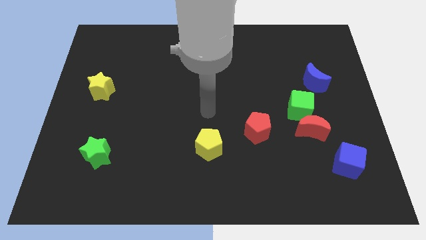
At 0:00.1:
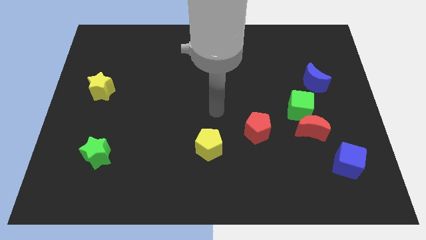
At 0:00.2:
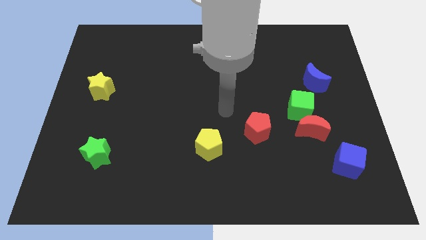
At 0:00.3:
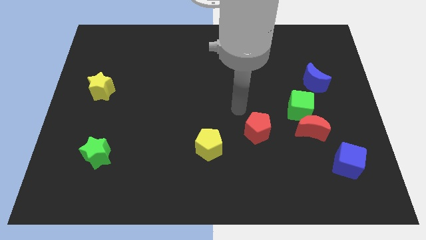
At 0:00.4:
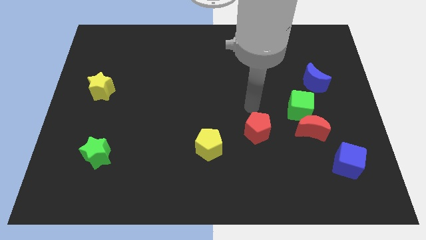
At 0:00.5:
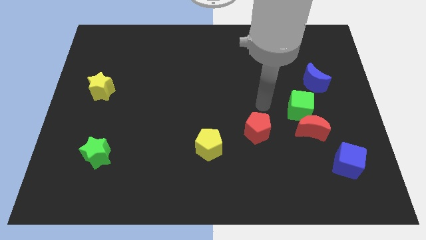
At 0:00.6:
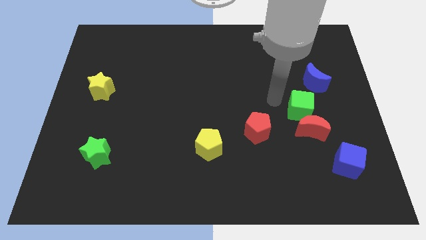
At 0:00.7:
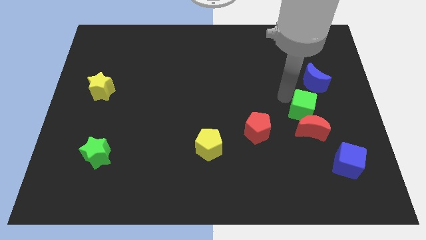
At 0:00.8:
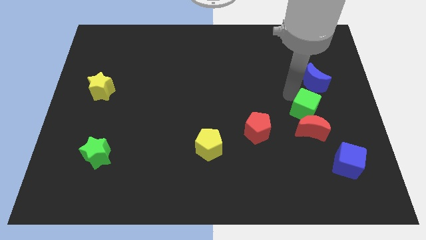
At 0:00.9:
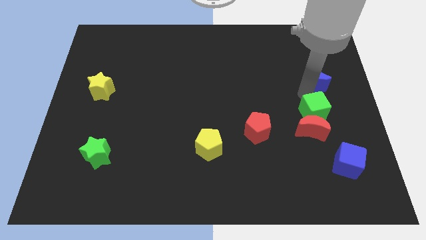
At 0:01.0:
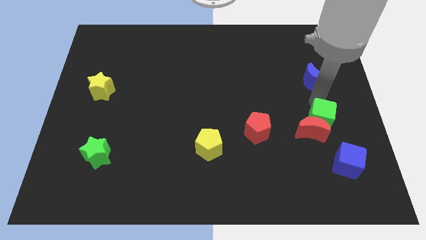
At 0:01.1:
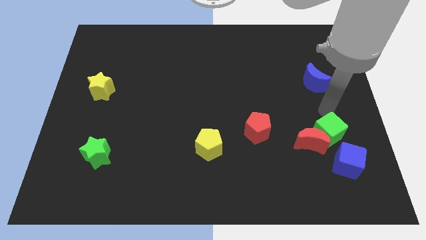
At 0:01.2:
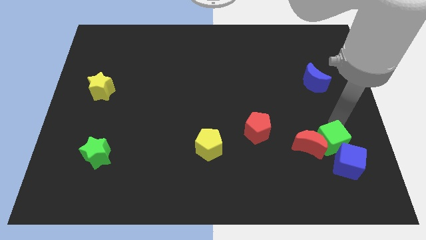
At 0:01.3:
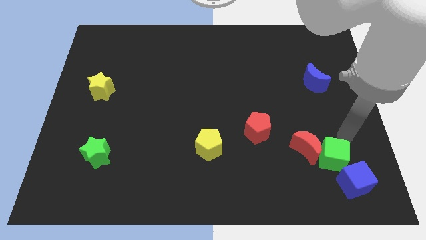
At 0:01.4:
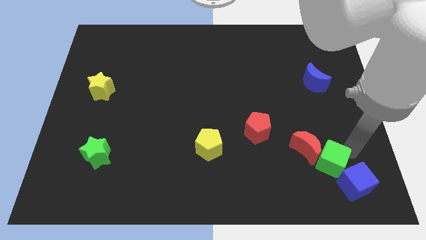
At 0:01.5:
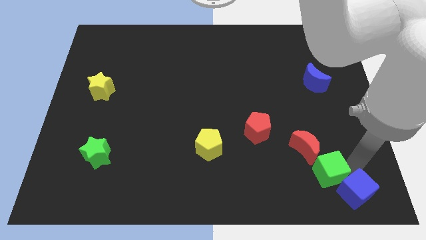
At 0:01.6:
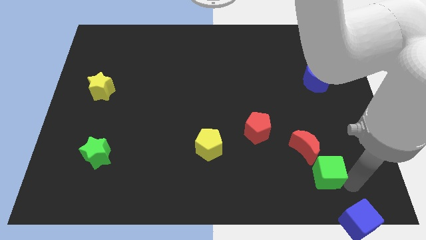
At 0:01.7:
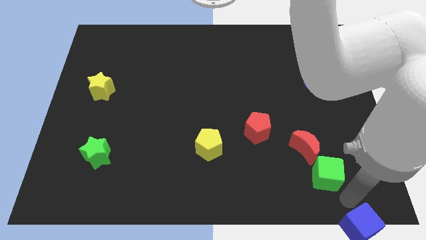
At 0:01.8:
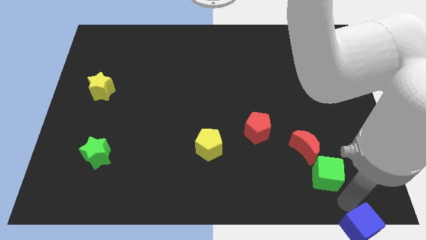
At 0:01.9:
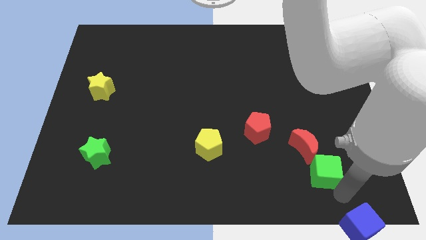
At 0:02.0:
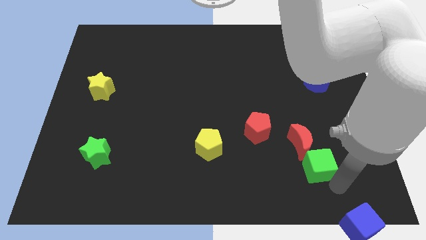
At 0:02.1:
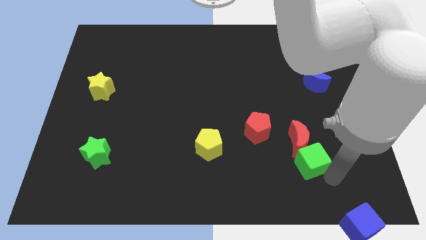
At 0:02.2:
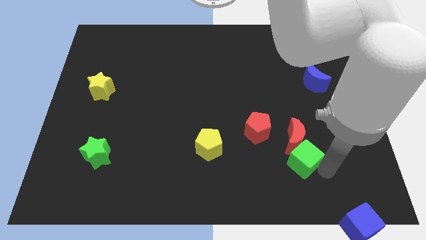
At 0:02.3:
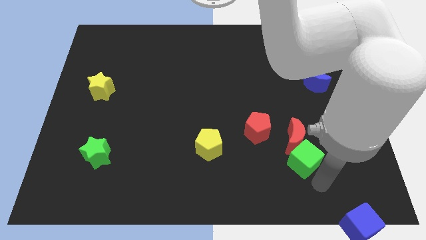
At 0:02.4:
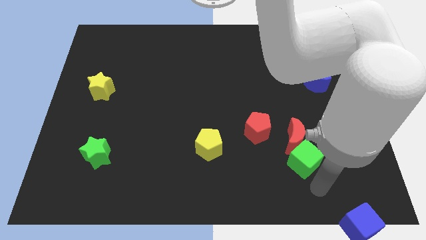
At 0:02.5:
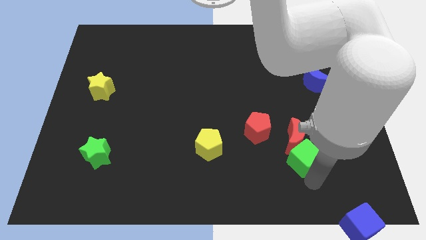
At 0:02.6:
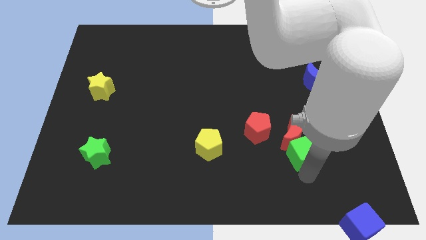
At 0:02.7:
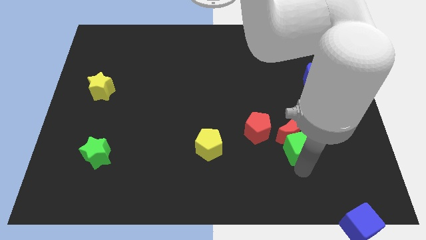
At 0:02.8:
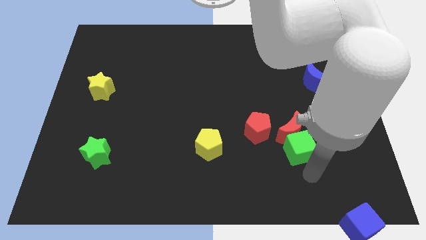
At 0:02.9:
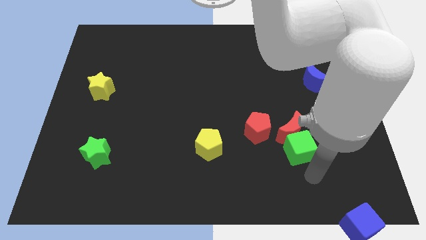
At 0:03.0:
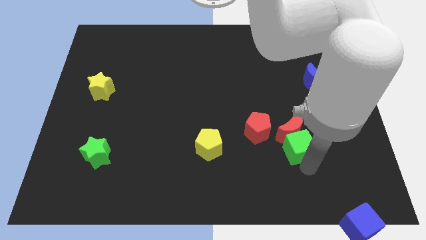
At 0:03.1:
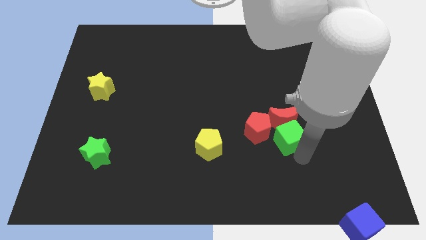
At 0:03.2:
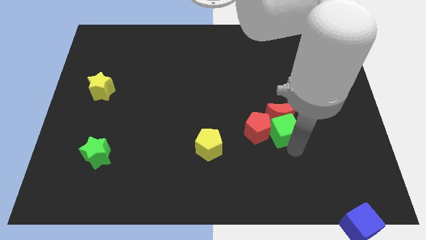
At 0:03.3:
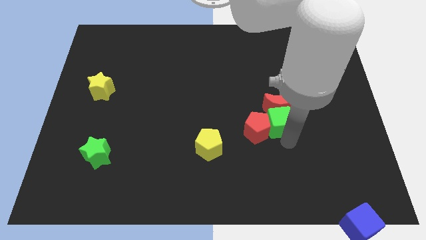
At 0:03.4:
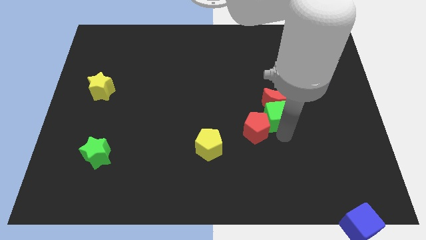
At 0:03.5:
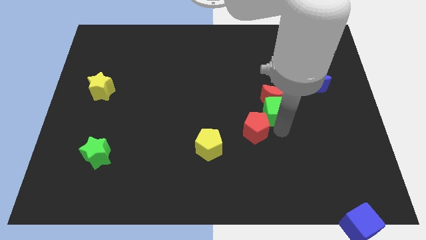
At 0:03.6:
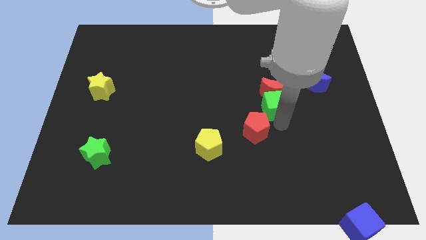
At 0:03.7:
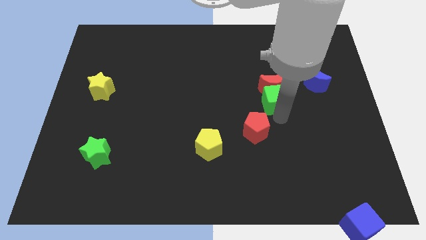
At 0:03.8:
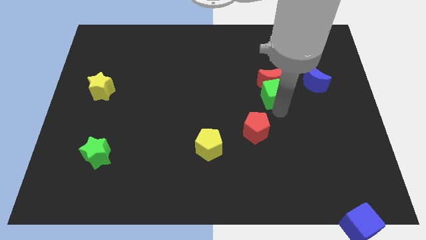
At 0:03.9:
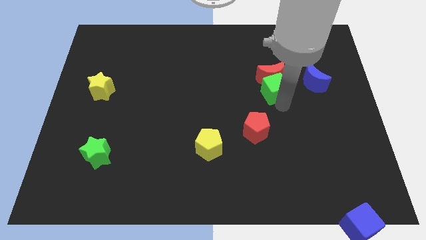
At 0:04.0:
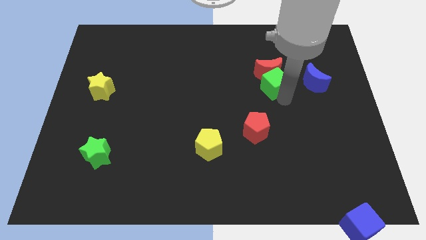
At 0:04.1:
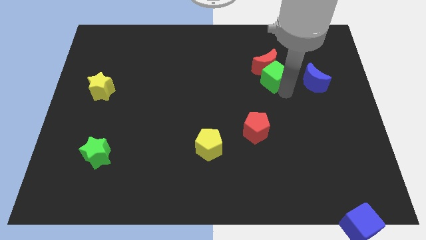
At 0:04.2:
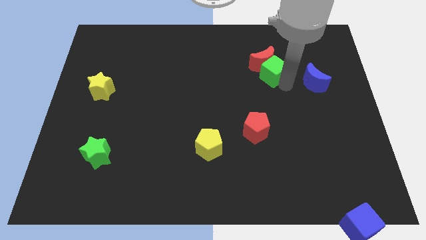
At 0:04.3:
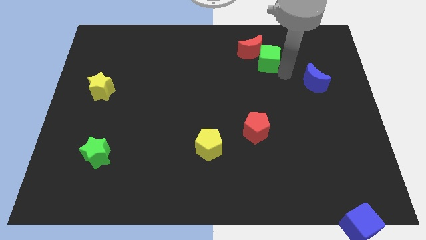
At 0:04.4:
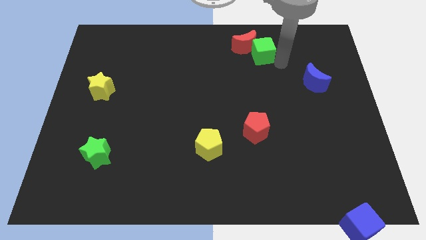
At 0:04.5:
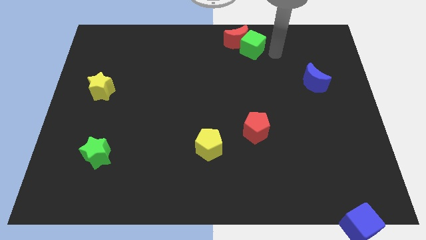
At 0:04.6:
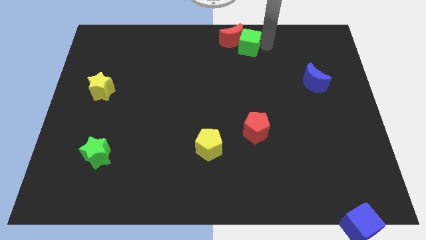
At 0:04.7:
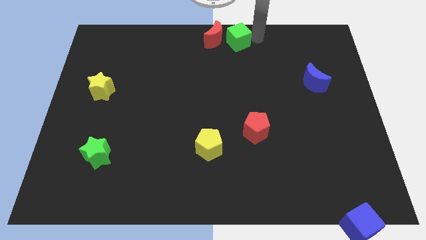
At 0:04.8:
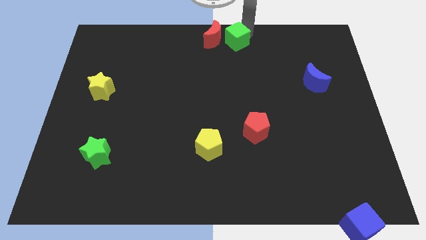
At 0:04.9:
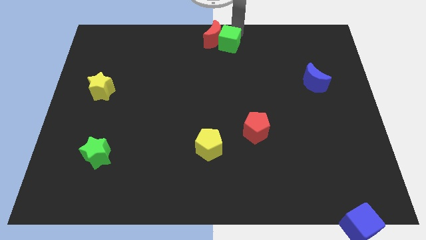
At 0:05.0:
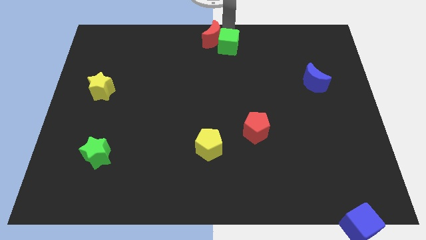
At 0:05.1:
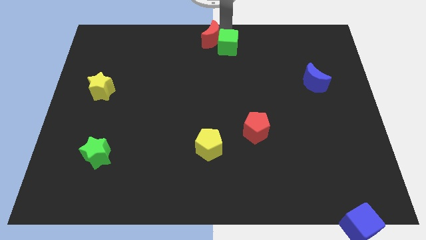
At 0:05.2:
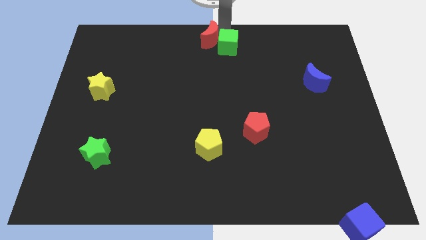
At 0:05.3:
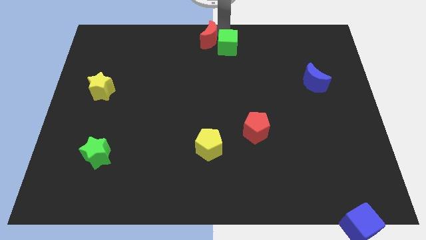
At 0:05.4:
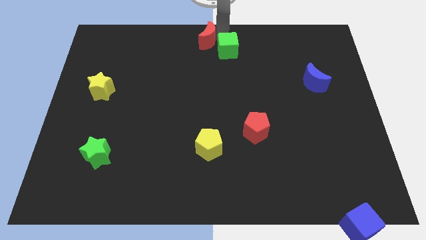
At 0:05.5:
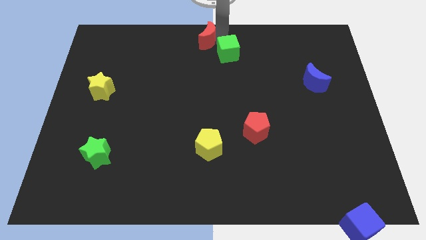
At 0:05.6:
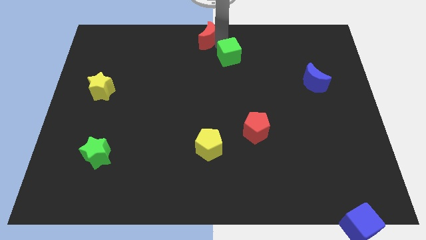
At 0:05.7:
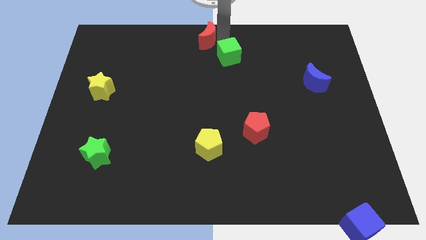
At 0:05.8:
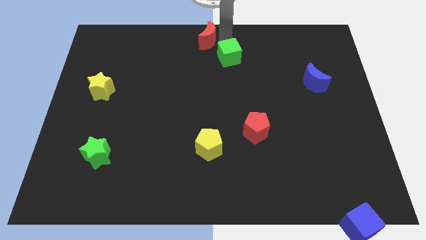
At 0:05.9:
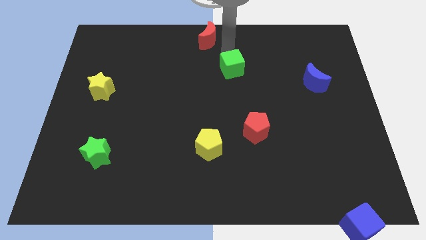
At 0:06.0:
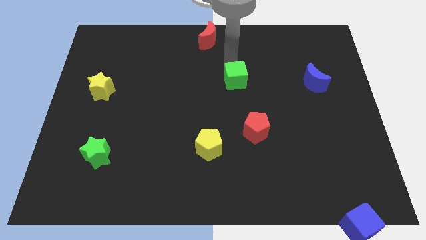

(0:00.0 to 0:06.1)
slightly move the green cube to the left

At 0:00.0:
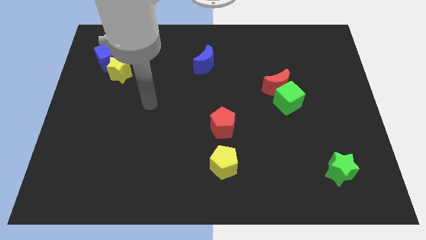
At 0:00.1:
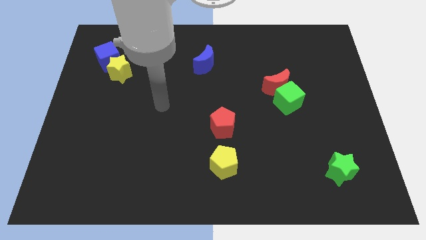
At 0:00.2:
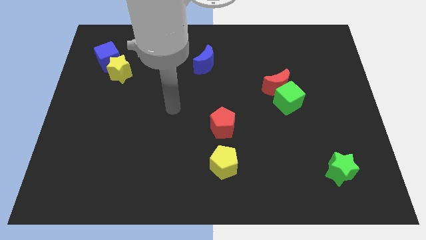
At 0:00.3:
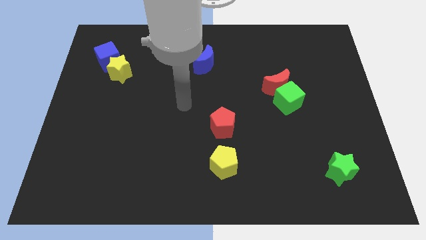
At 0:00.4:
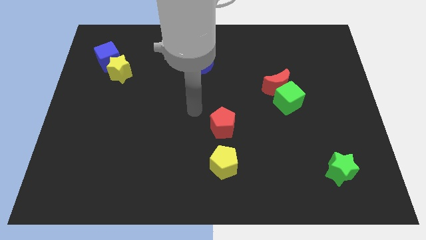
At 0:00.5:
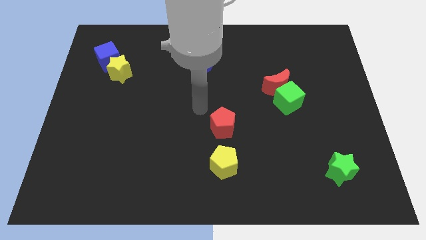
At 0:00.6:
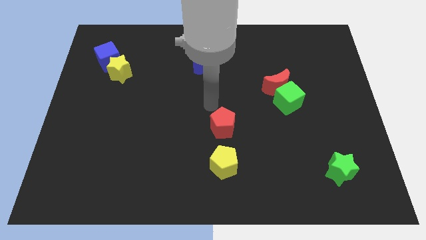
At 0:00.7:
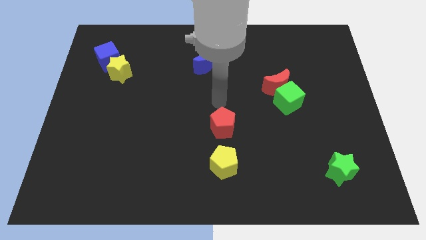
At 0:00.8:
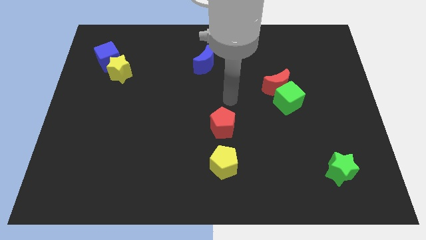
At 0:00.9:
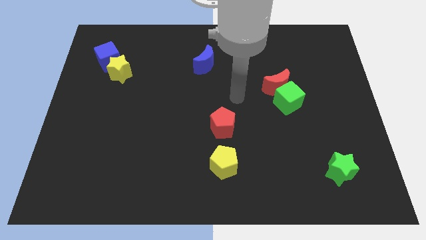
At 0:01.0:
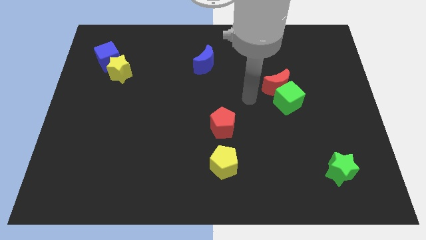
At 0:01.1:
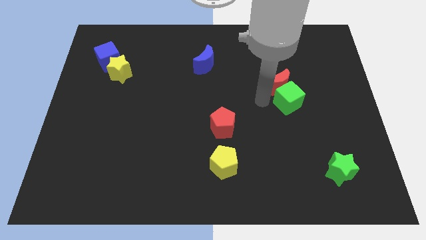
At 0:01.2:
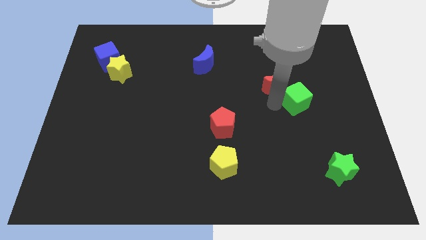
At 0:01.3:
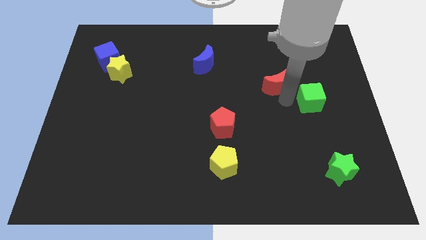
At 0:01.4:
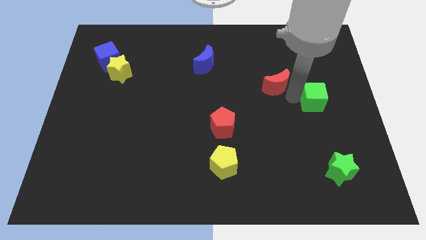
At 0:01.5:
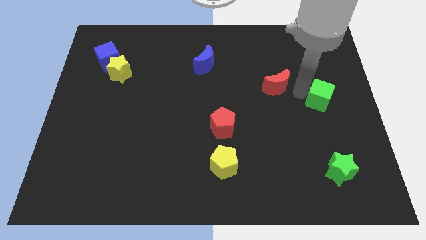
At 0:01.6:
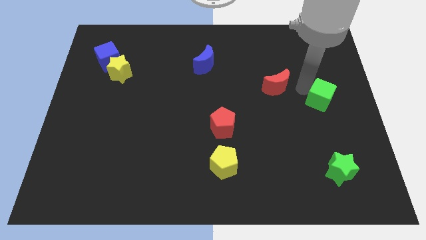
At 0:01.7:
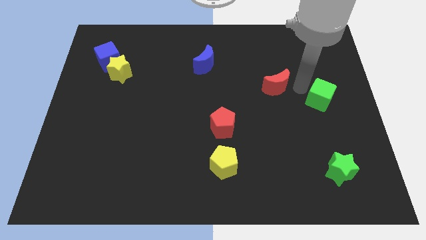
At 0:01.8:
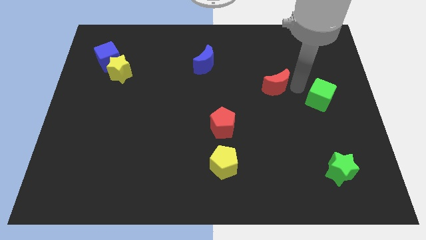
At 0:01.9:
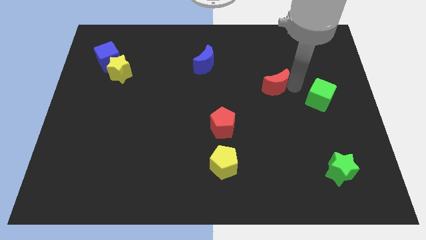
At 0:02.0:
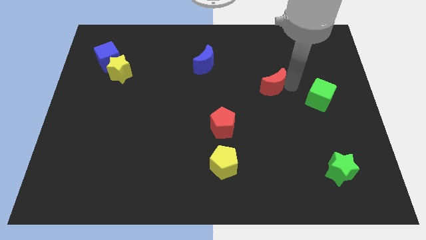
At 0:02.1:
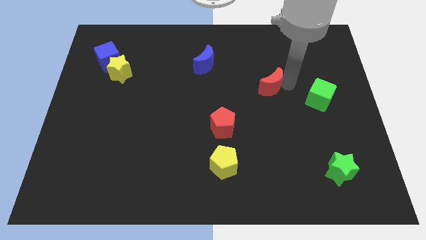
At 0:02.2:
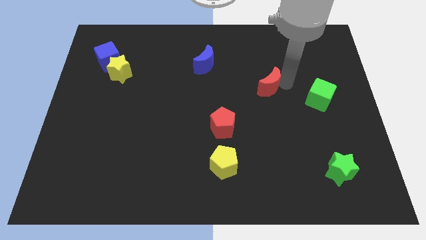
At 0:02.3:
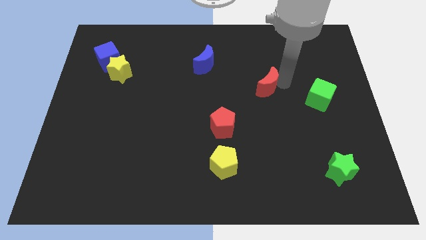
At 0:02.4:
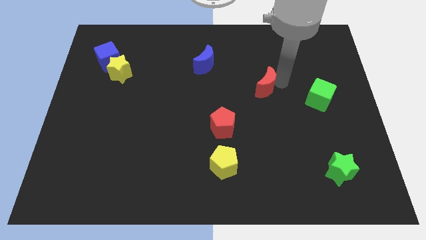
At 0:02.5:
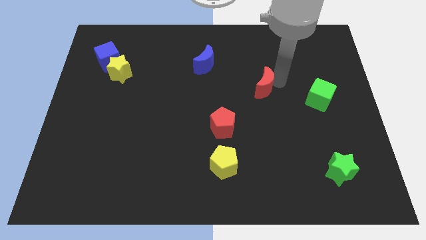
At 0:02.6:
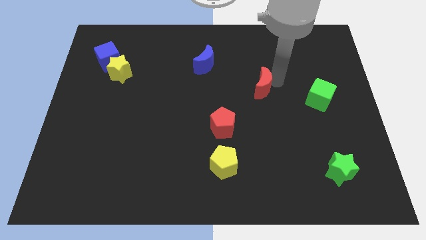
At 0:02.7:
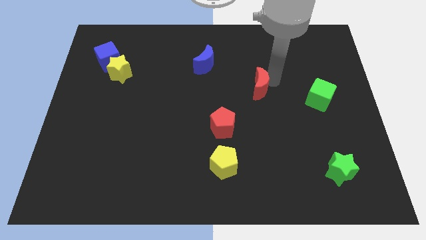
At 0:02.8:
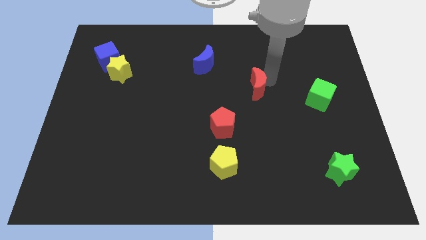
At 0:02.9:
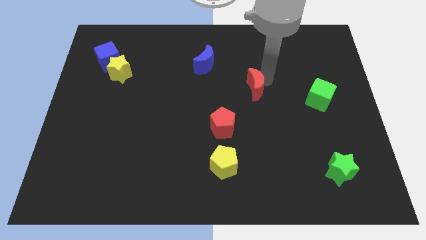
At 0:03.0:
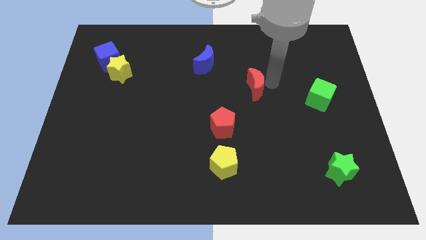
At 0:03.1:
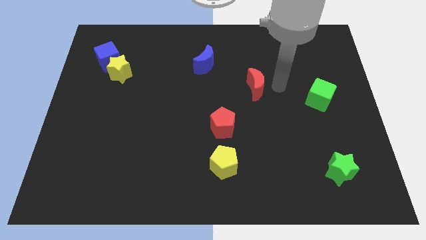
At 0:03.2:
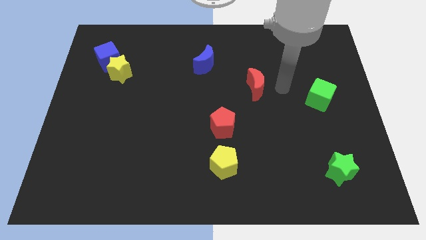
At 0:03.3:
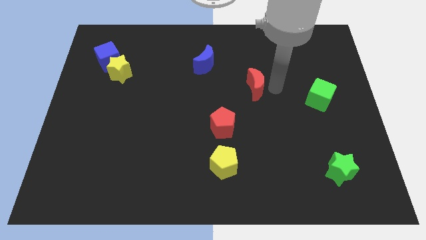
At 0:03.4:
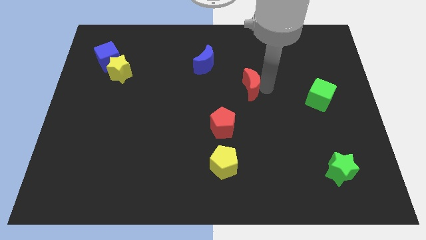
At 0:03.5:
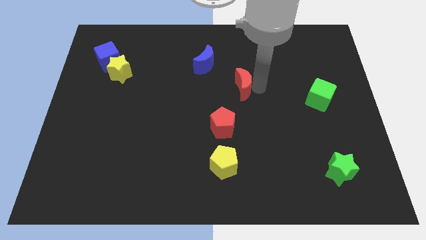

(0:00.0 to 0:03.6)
push the red moon a little left
